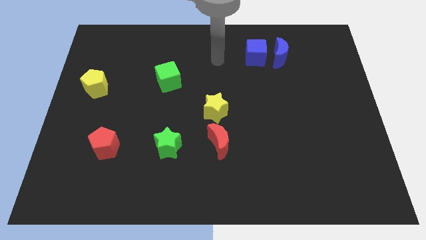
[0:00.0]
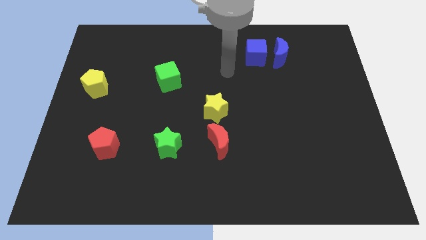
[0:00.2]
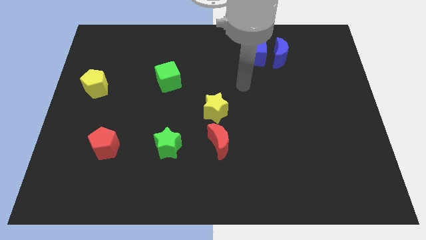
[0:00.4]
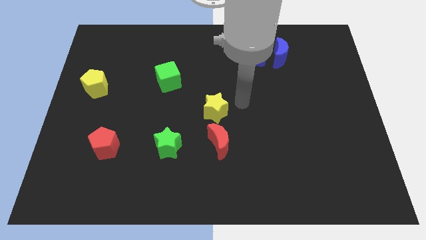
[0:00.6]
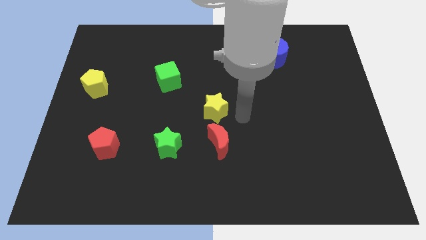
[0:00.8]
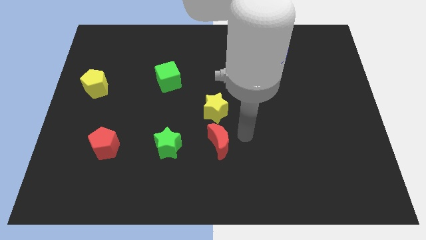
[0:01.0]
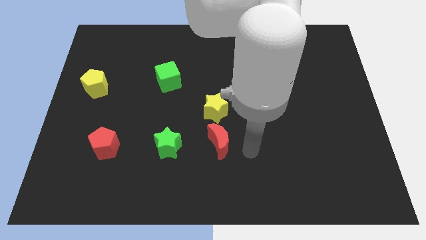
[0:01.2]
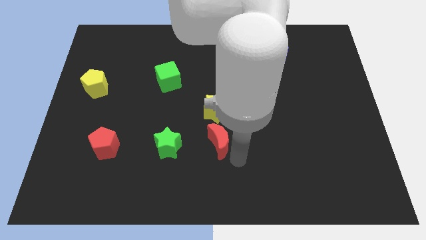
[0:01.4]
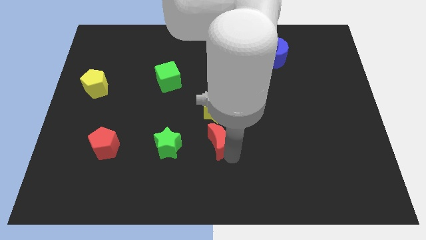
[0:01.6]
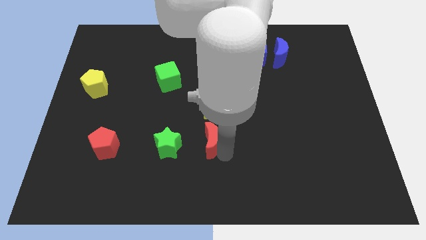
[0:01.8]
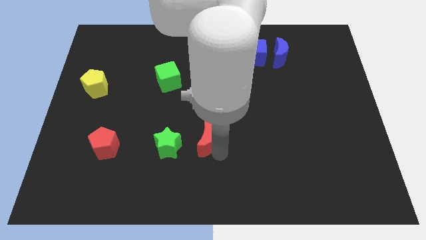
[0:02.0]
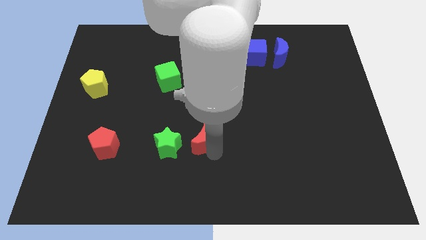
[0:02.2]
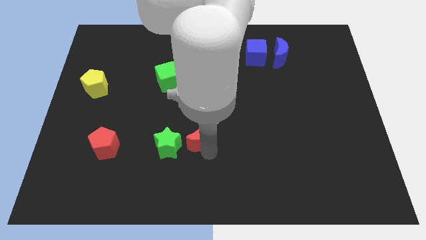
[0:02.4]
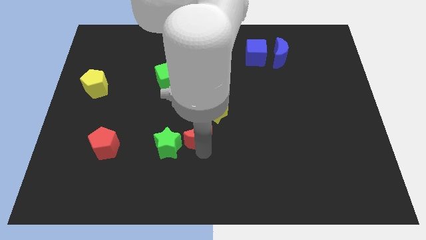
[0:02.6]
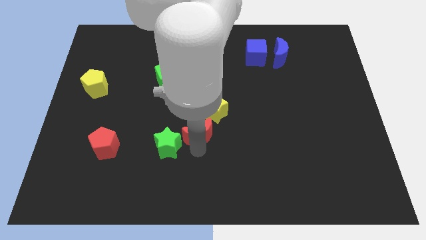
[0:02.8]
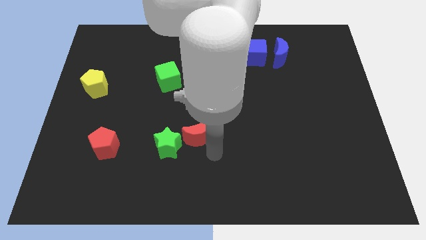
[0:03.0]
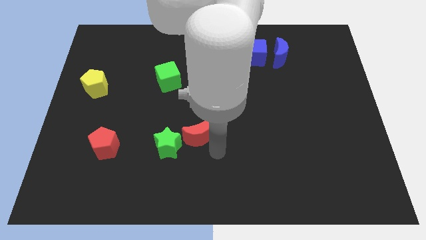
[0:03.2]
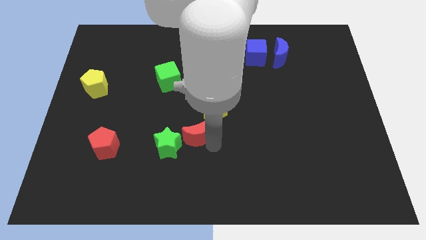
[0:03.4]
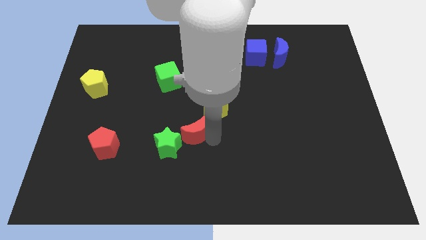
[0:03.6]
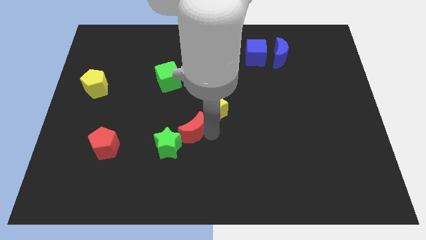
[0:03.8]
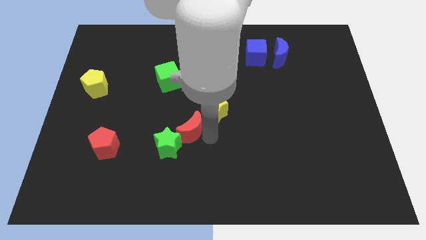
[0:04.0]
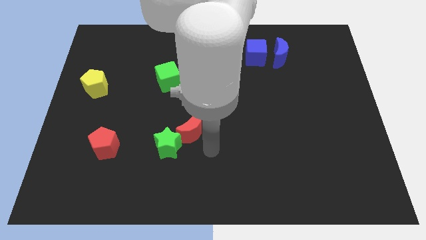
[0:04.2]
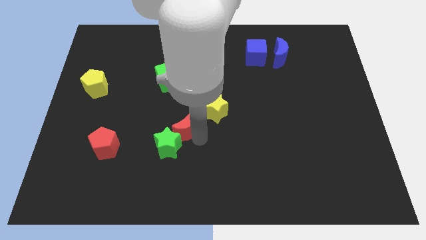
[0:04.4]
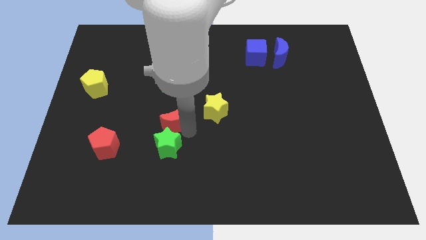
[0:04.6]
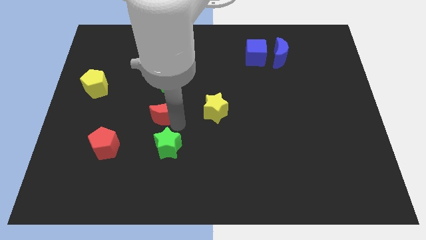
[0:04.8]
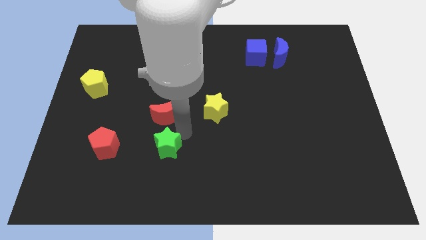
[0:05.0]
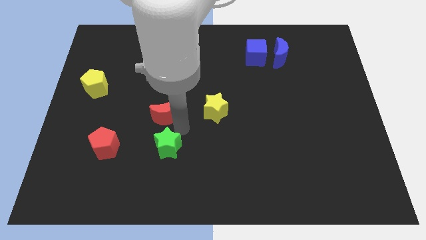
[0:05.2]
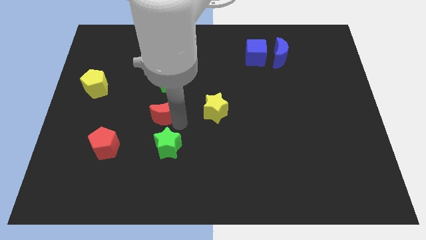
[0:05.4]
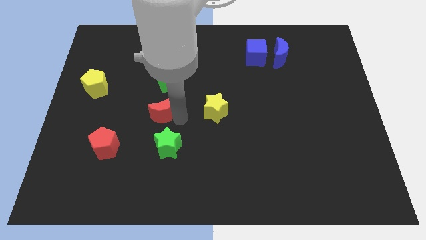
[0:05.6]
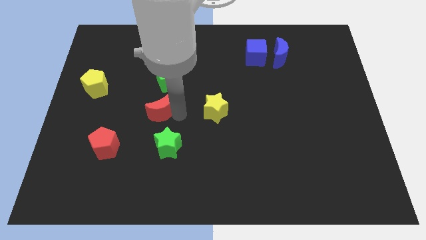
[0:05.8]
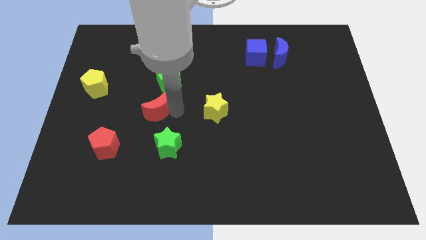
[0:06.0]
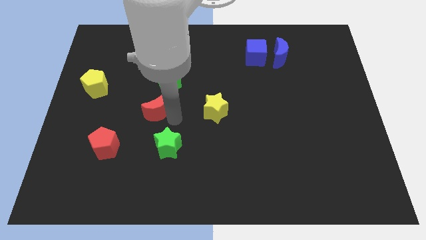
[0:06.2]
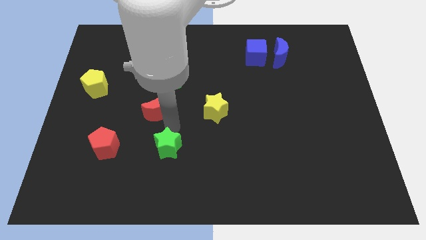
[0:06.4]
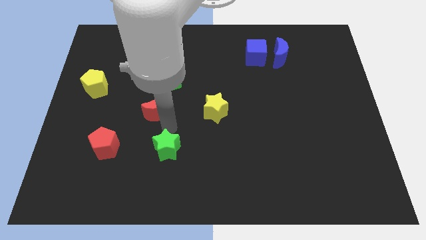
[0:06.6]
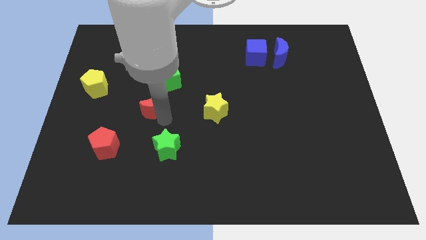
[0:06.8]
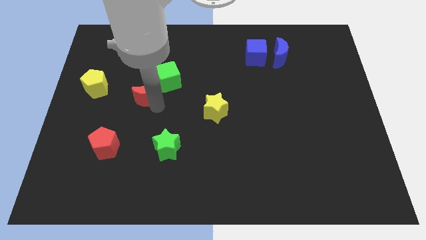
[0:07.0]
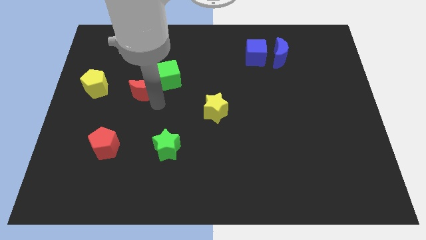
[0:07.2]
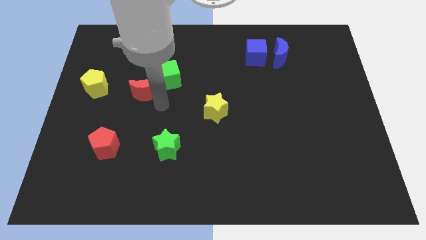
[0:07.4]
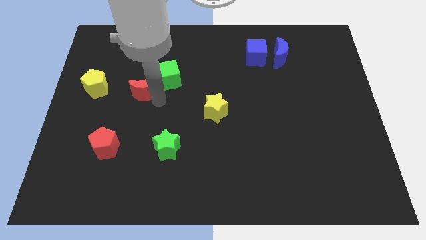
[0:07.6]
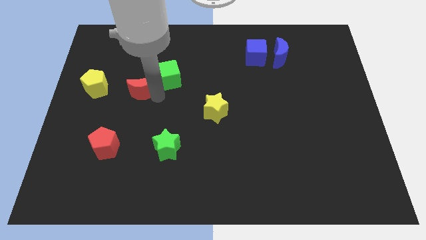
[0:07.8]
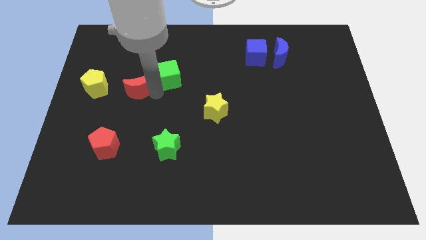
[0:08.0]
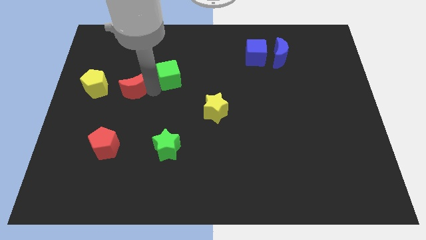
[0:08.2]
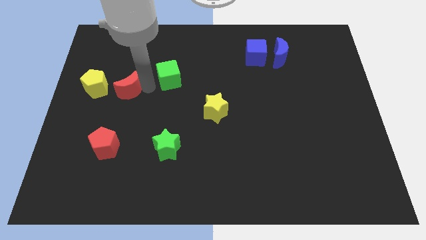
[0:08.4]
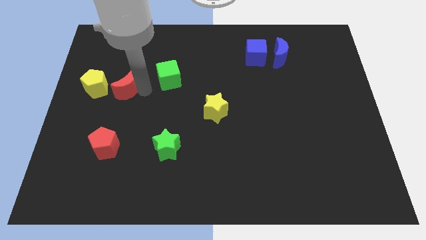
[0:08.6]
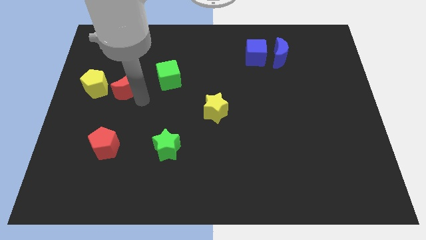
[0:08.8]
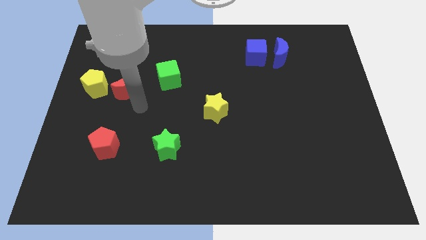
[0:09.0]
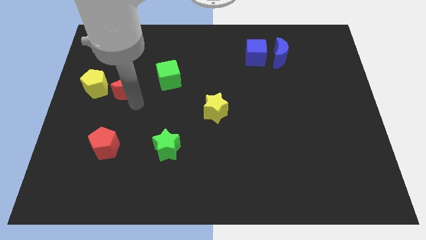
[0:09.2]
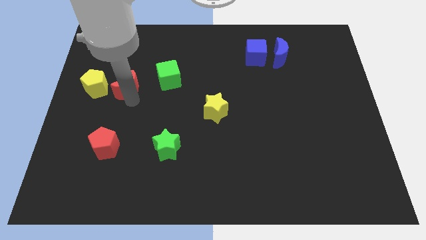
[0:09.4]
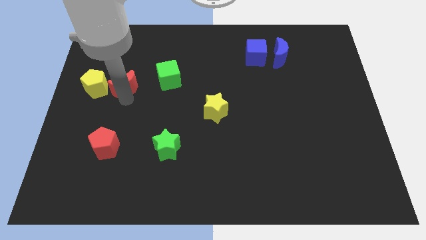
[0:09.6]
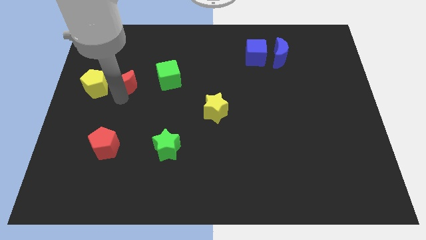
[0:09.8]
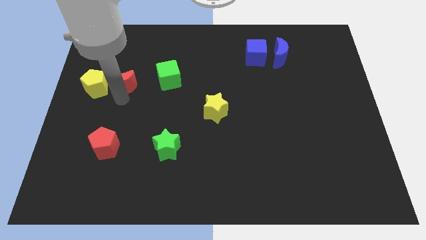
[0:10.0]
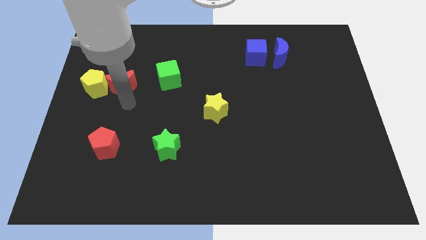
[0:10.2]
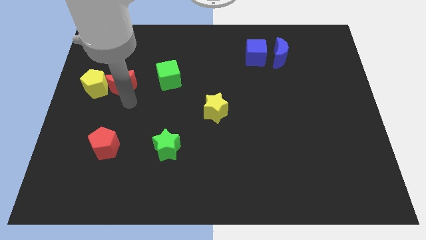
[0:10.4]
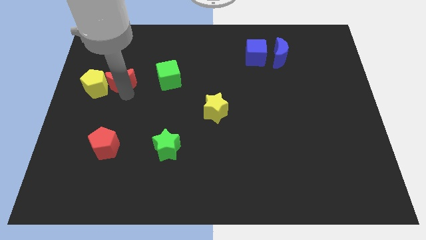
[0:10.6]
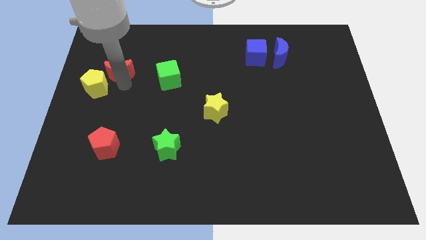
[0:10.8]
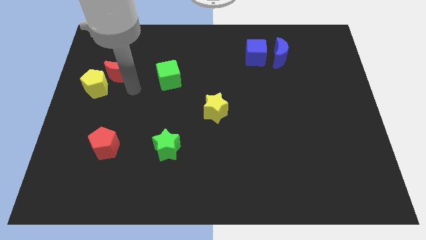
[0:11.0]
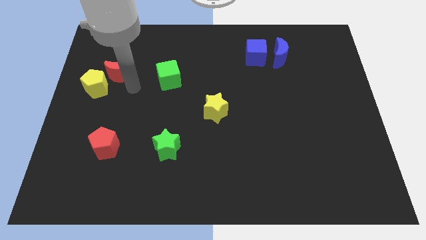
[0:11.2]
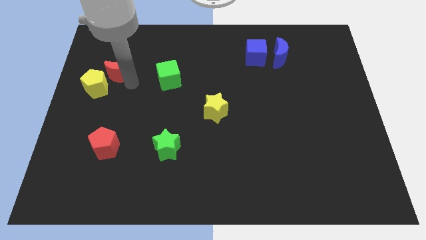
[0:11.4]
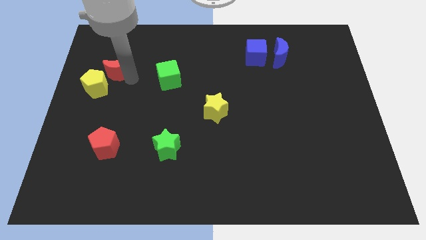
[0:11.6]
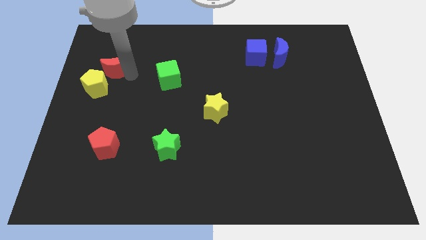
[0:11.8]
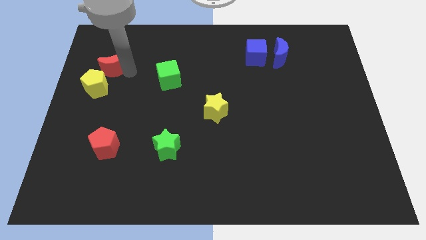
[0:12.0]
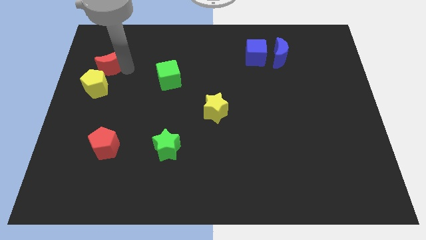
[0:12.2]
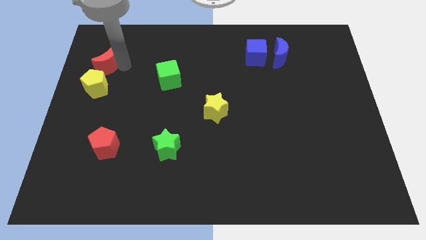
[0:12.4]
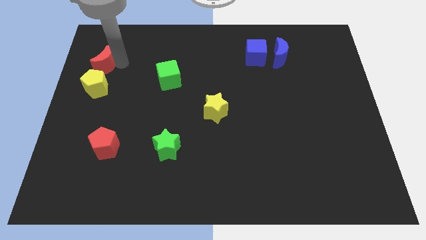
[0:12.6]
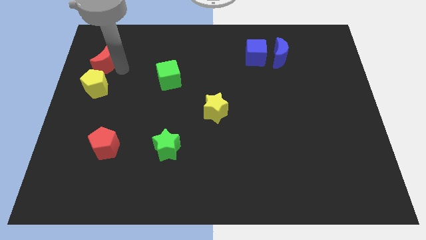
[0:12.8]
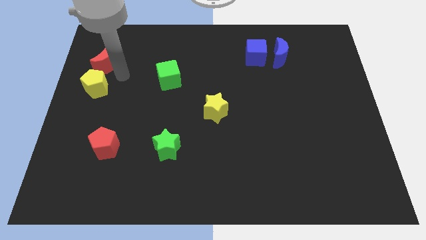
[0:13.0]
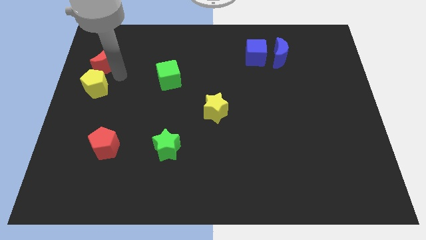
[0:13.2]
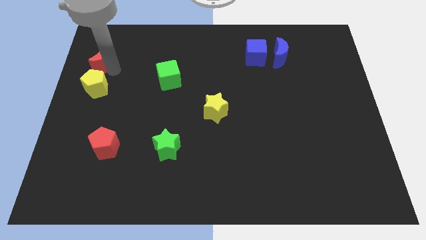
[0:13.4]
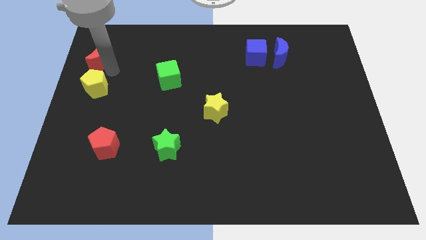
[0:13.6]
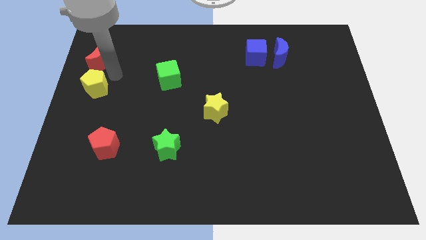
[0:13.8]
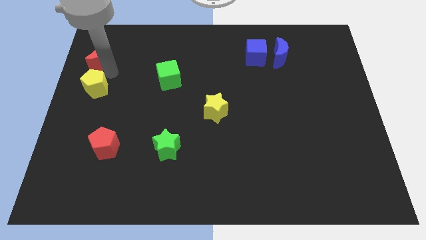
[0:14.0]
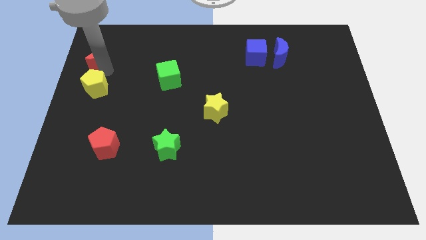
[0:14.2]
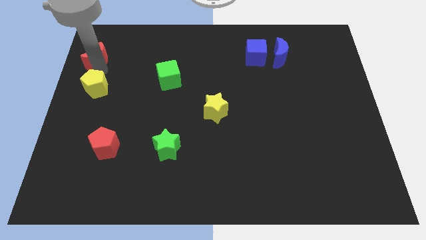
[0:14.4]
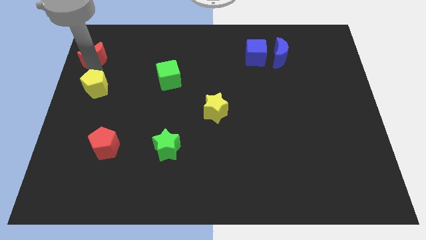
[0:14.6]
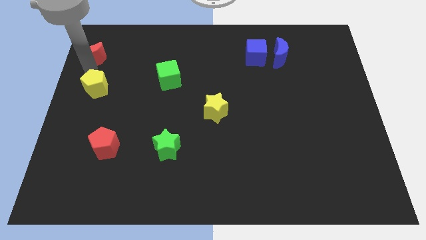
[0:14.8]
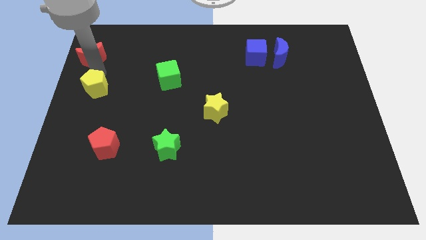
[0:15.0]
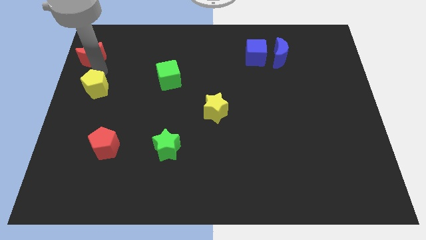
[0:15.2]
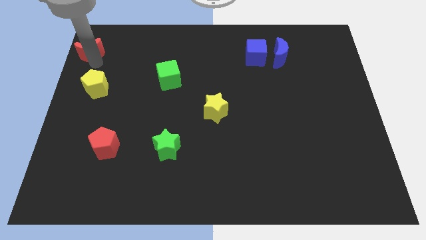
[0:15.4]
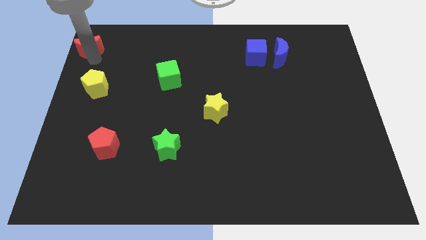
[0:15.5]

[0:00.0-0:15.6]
push the red moon to the top left
